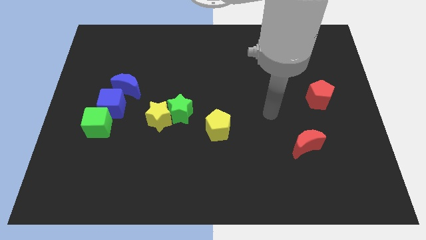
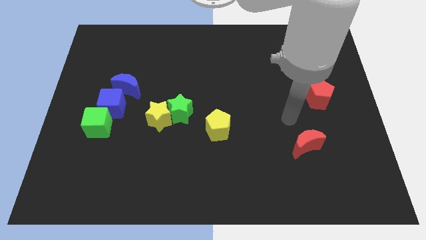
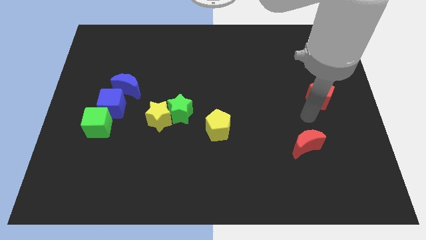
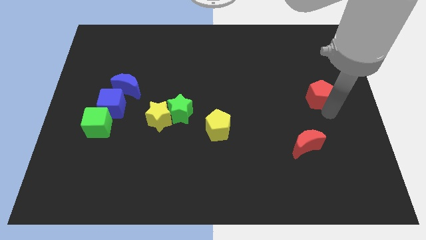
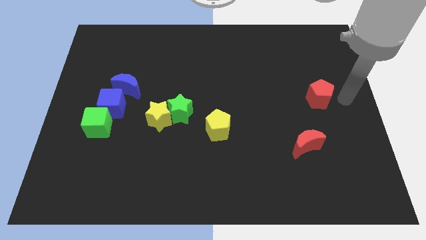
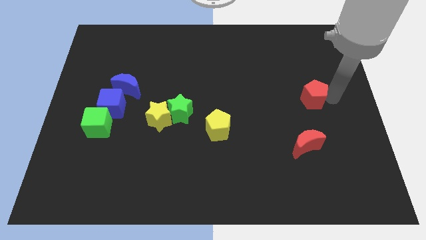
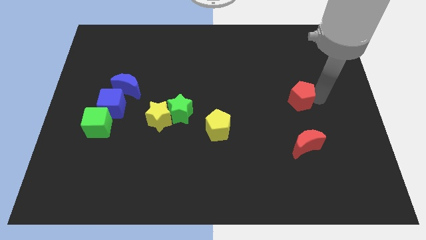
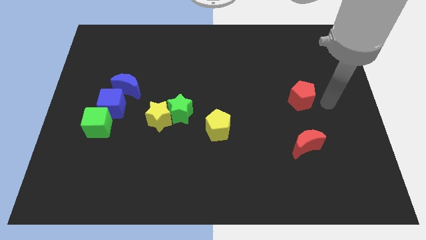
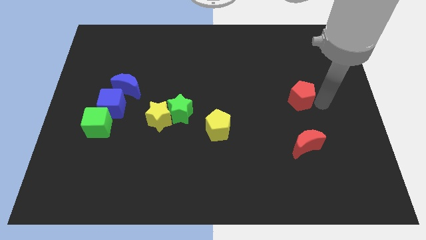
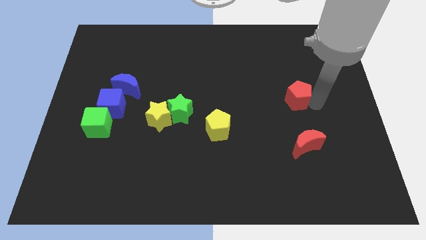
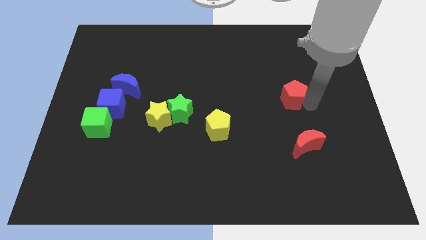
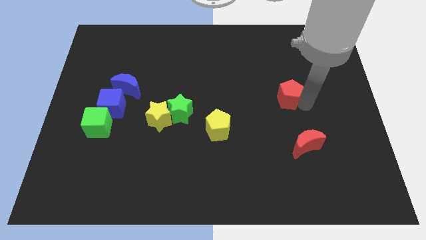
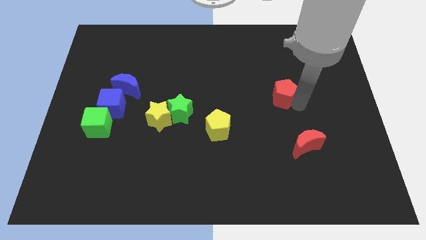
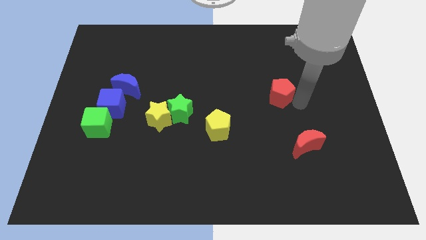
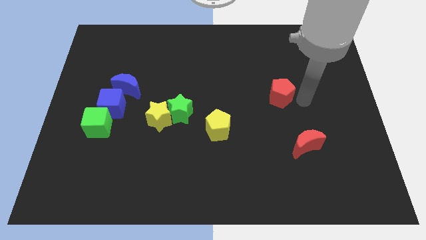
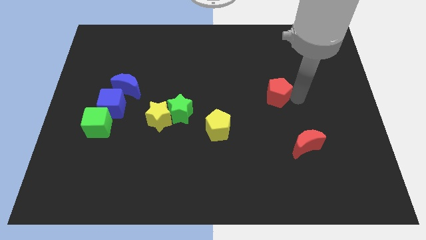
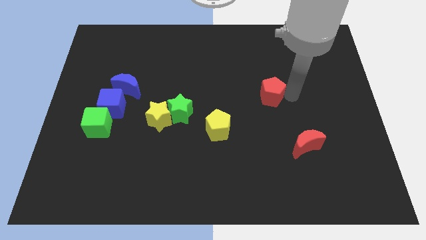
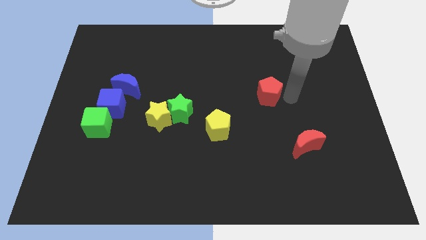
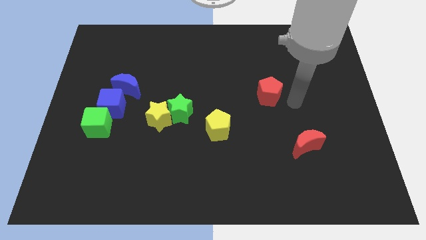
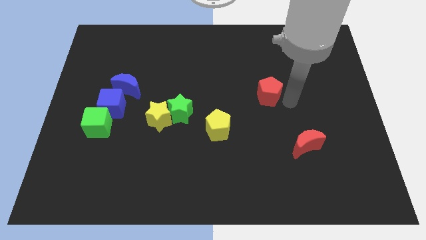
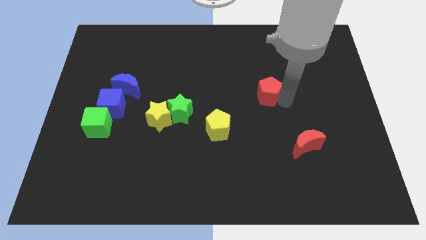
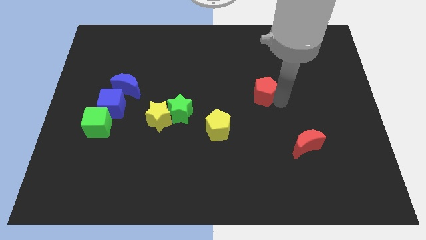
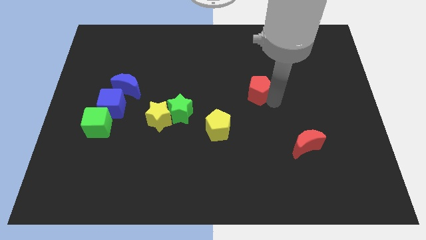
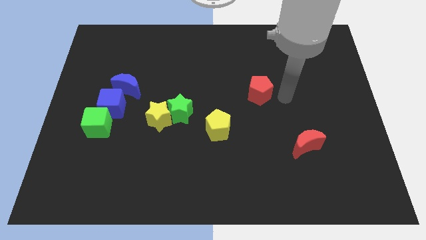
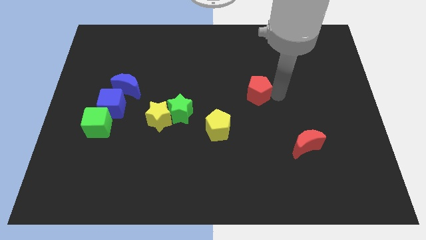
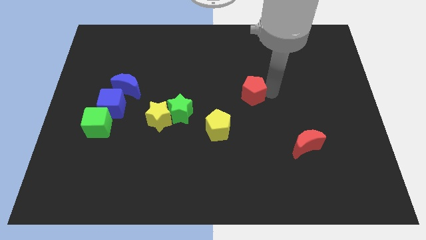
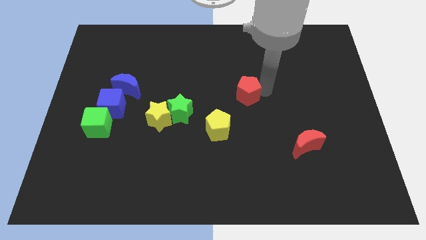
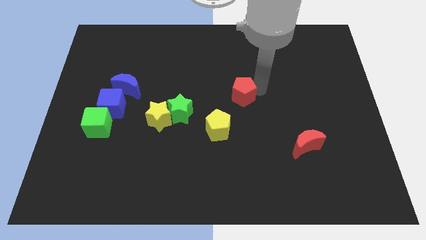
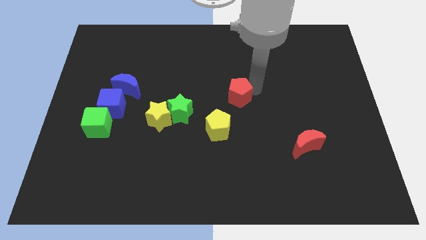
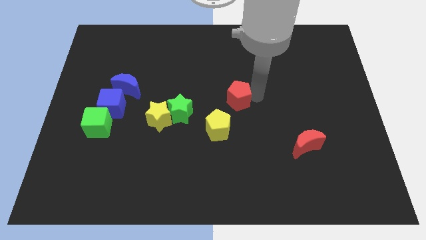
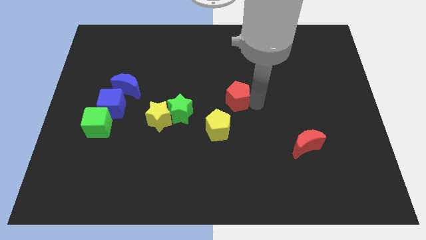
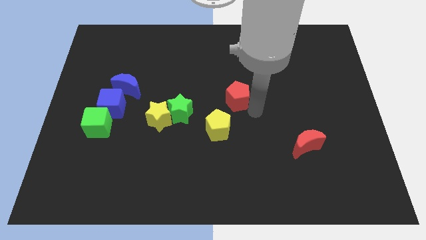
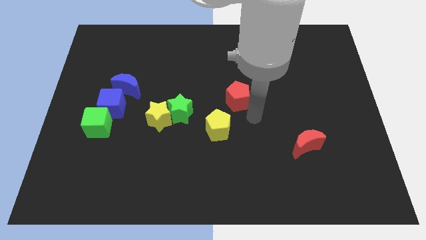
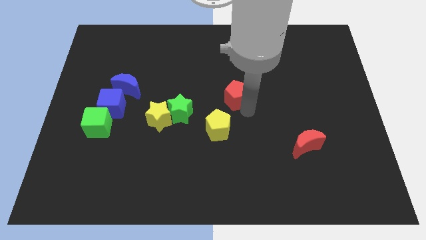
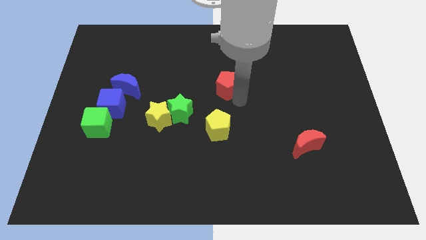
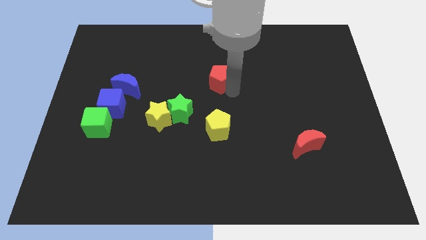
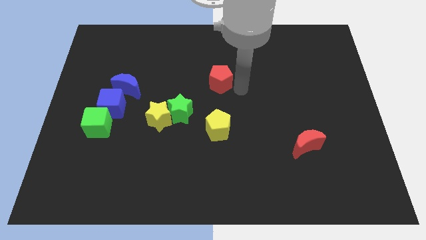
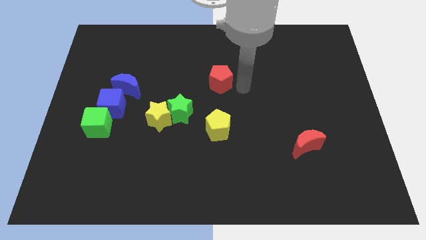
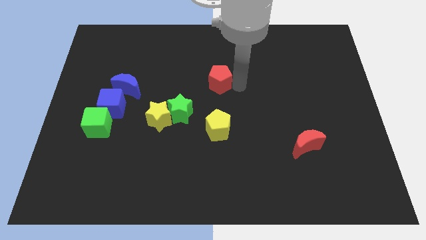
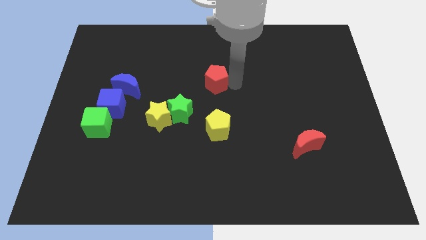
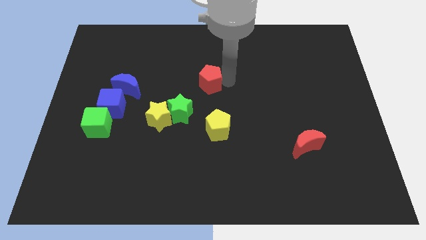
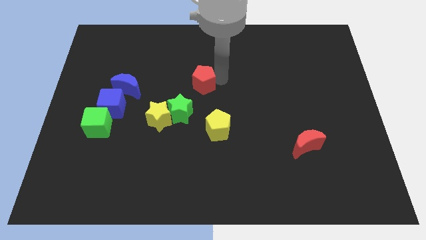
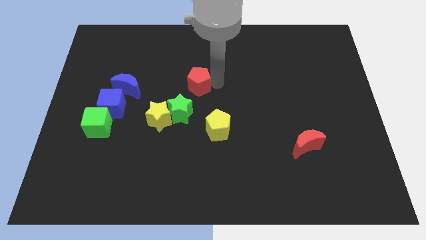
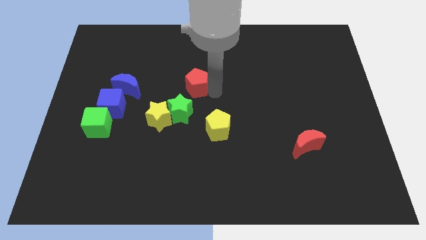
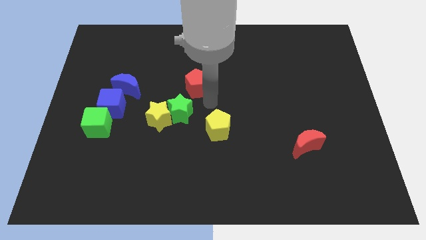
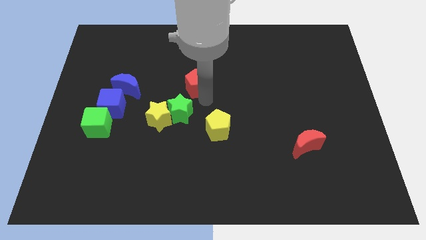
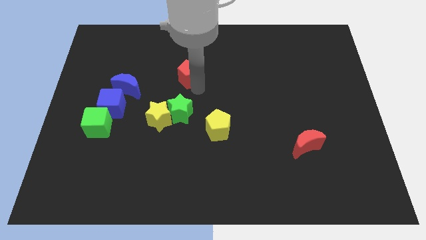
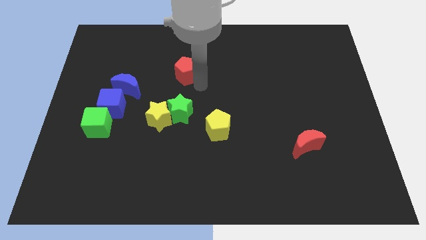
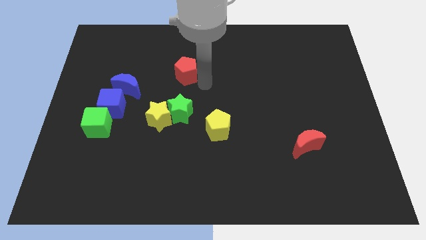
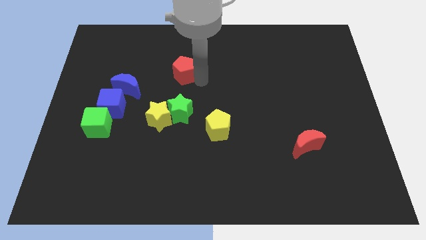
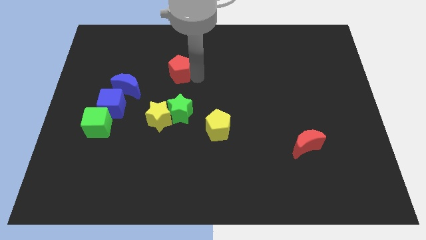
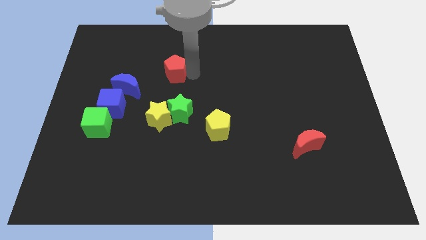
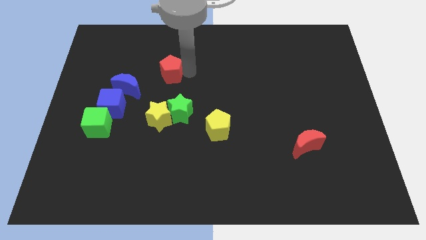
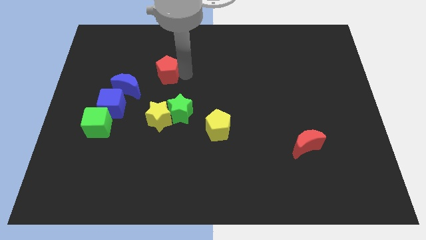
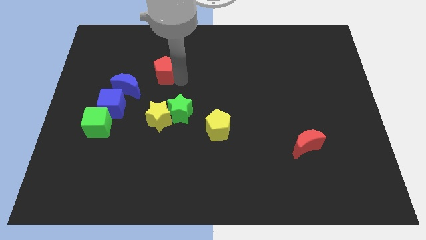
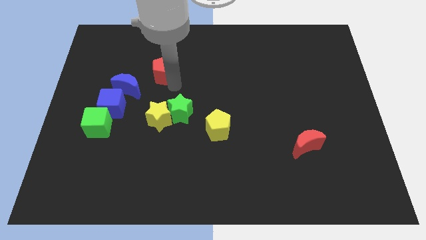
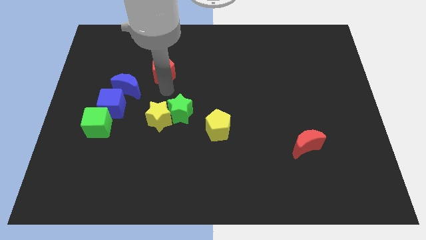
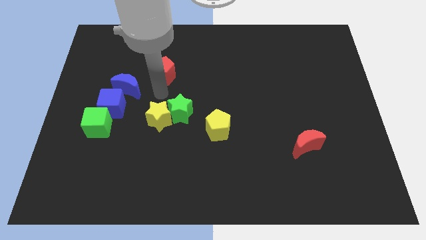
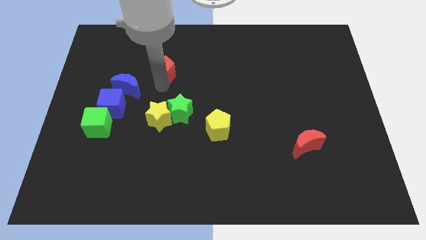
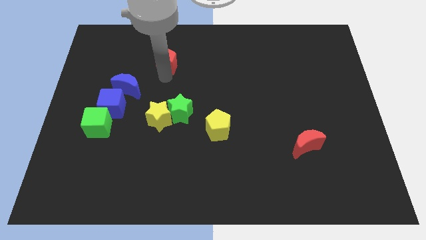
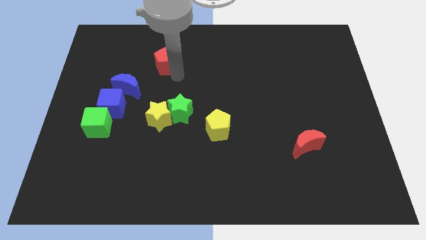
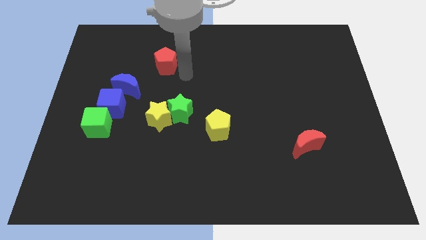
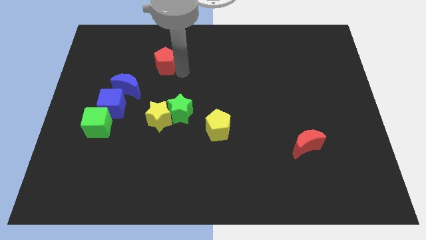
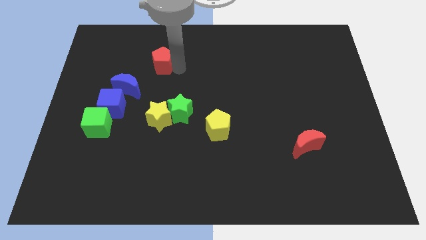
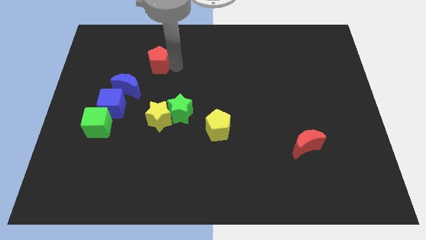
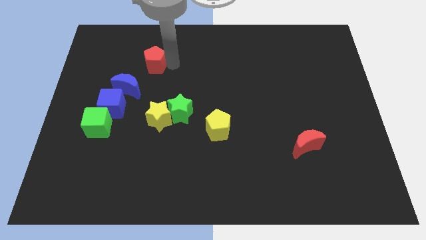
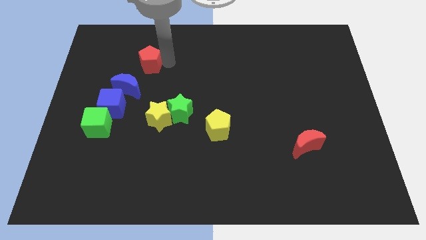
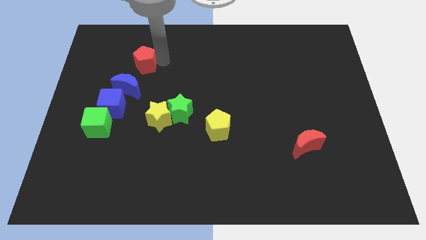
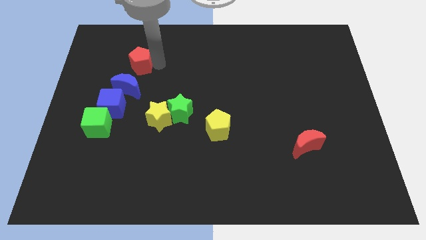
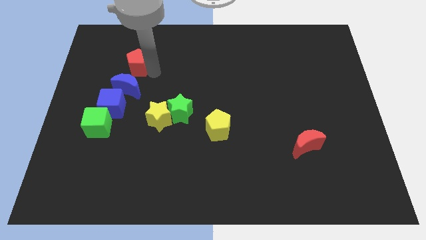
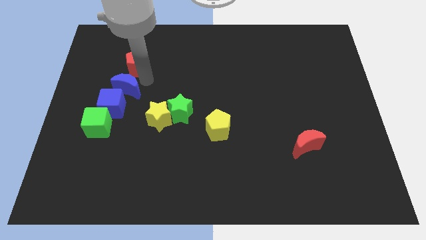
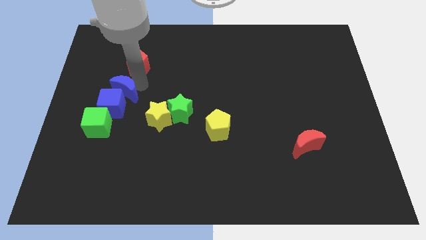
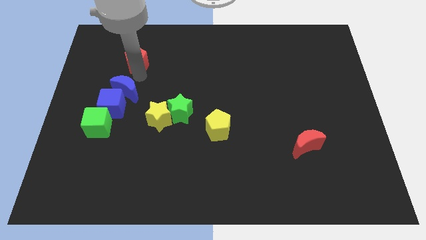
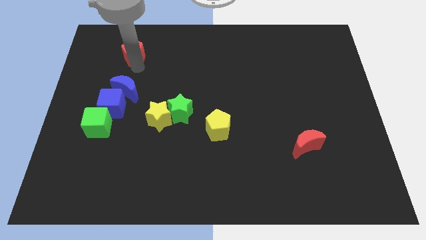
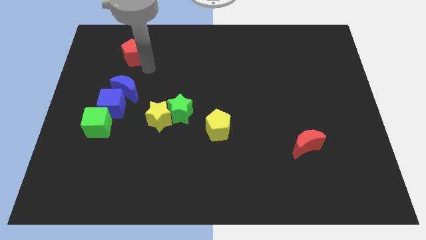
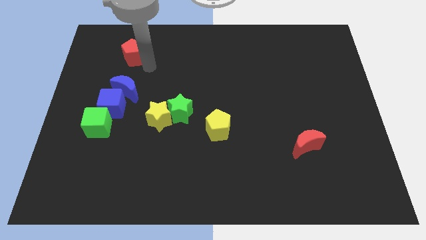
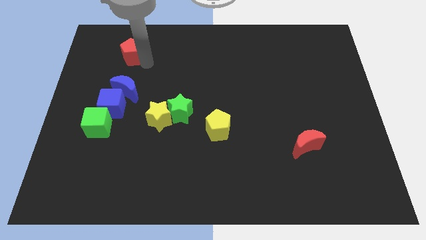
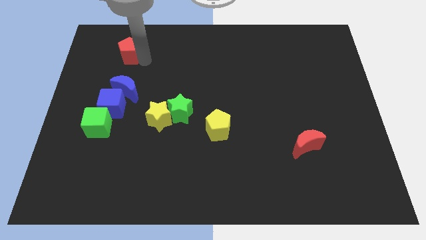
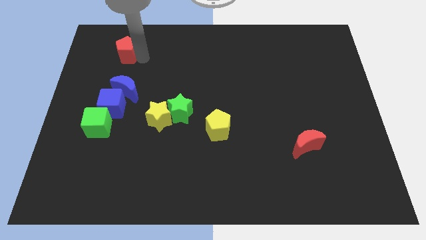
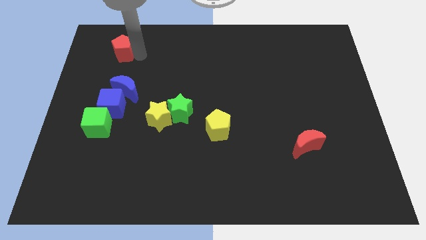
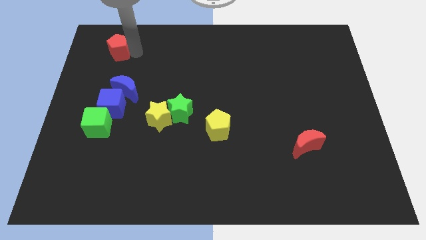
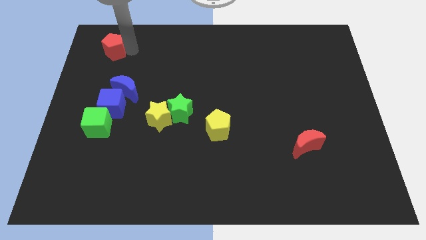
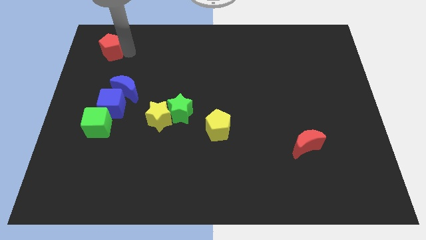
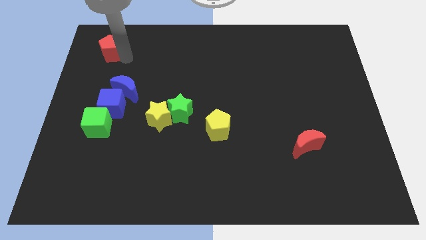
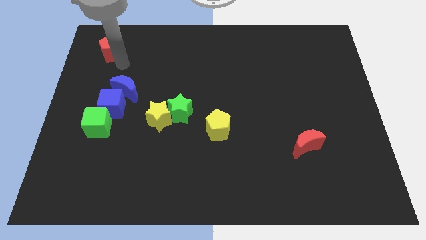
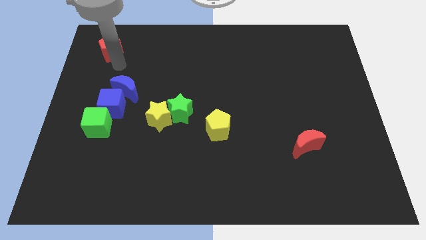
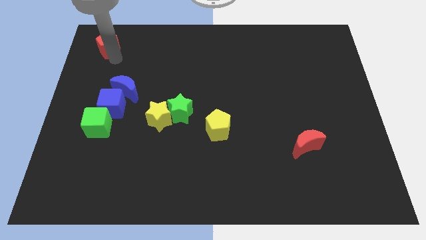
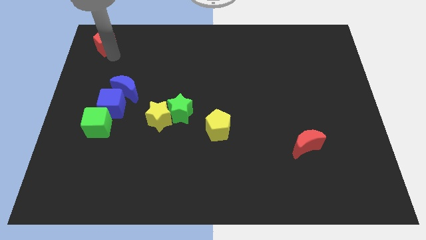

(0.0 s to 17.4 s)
push the red pentagon to the top left corner
